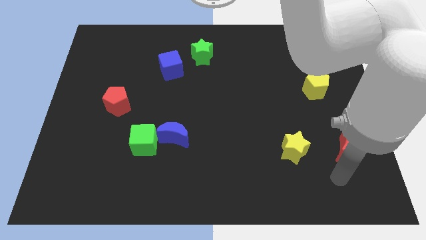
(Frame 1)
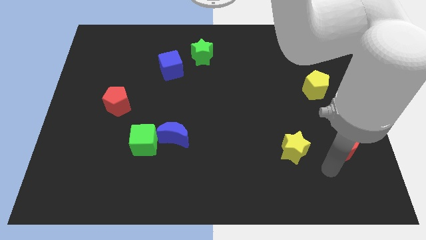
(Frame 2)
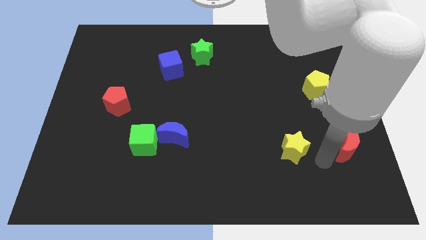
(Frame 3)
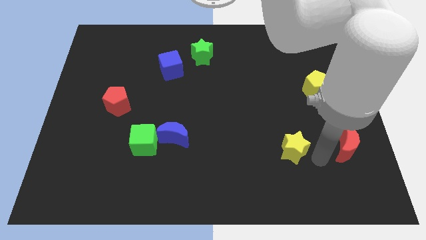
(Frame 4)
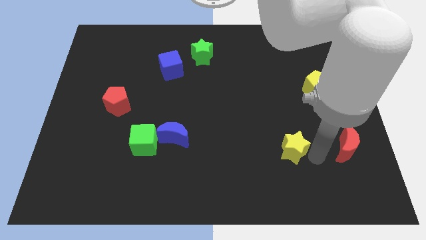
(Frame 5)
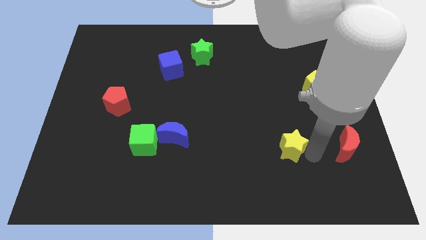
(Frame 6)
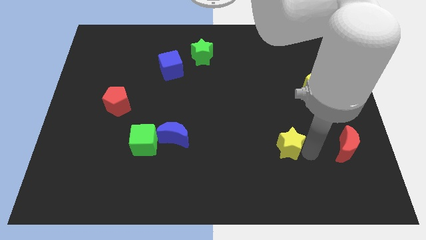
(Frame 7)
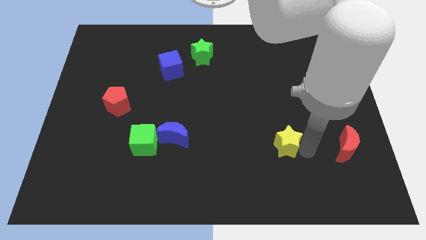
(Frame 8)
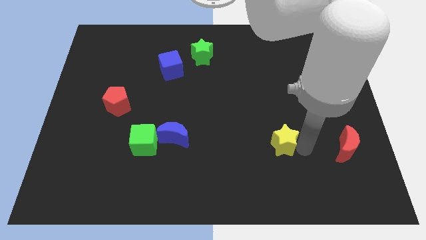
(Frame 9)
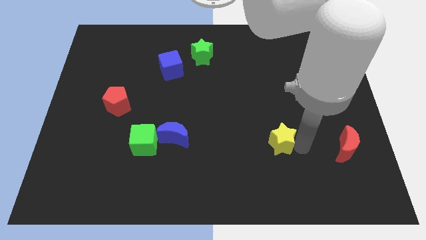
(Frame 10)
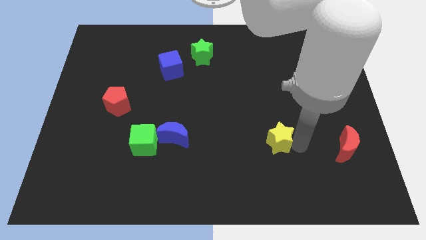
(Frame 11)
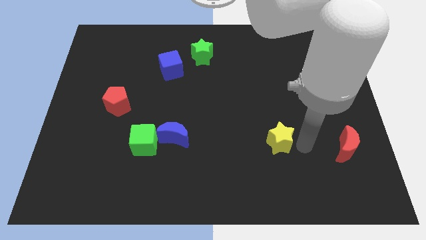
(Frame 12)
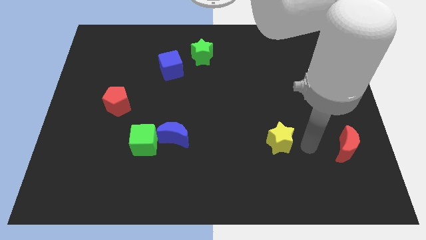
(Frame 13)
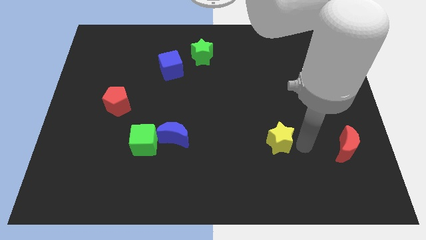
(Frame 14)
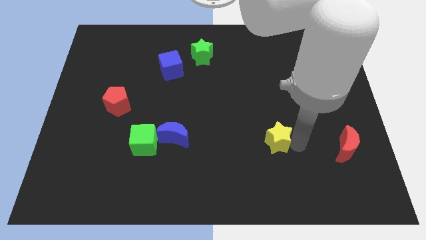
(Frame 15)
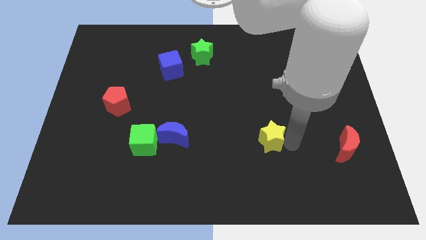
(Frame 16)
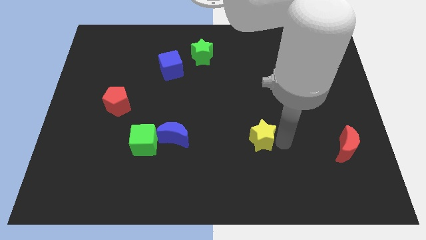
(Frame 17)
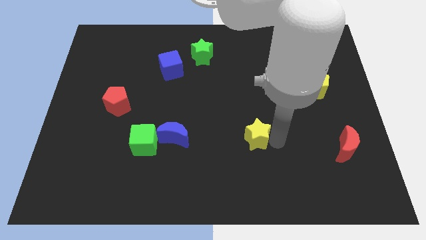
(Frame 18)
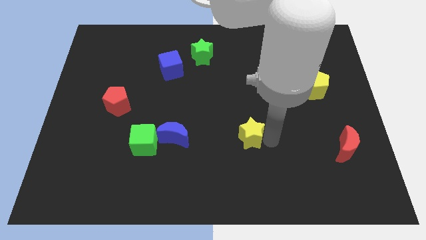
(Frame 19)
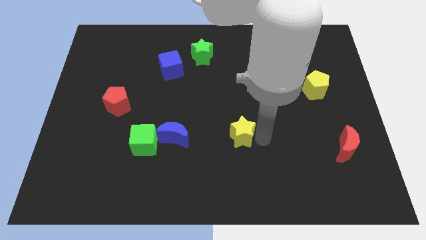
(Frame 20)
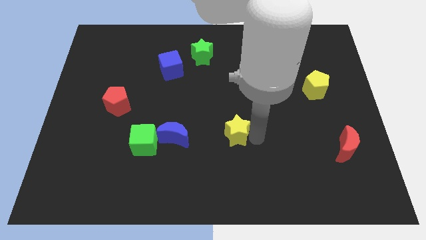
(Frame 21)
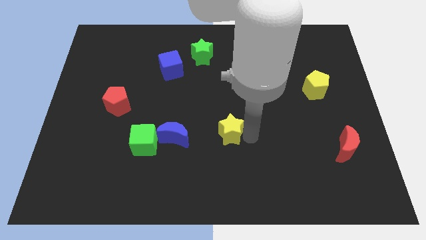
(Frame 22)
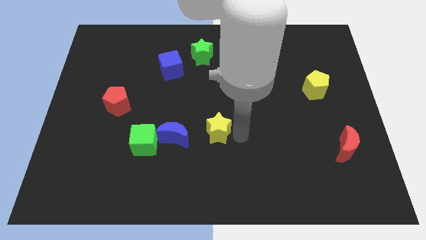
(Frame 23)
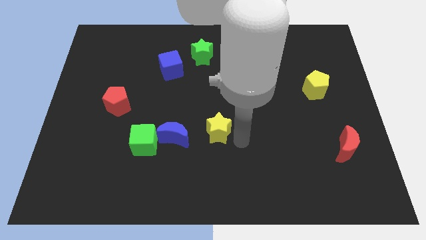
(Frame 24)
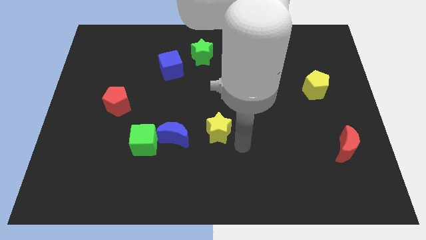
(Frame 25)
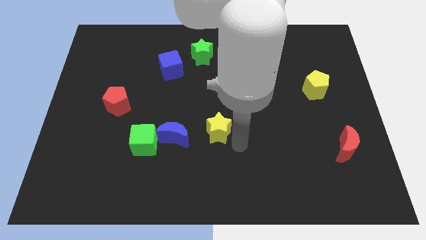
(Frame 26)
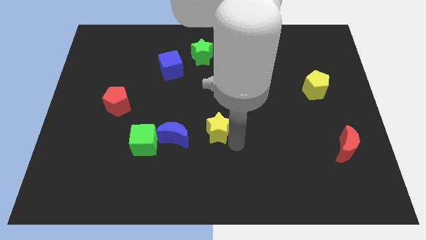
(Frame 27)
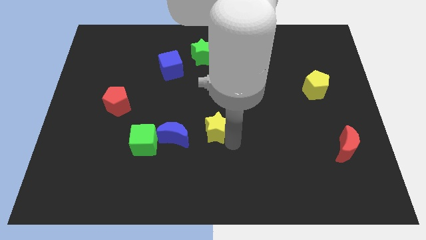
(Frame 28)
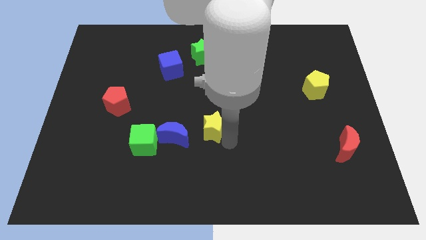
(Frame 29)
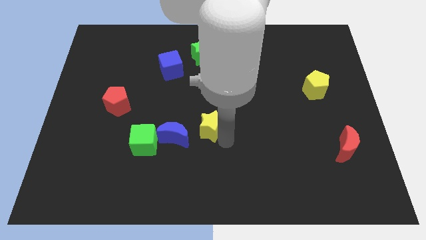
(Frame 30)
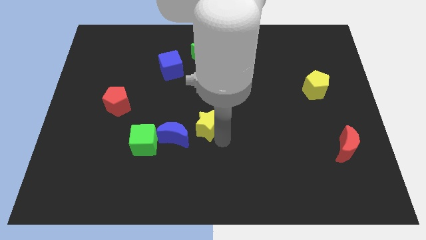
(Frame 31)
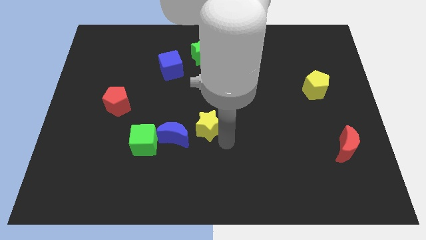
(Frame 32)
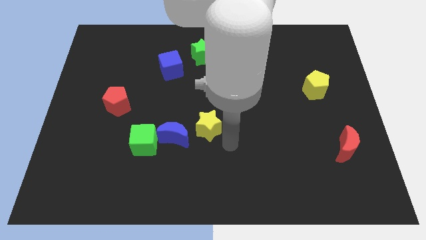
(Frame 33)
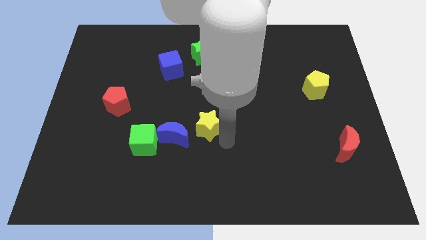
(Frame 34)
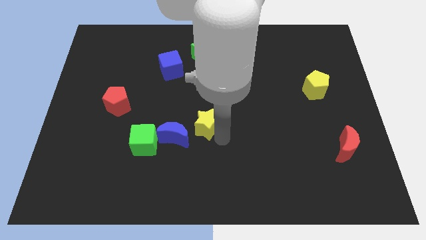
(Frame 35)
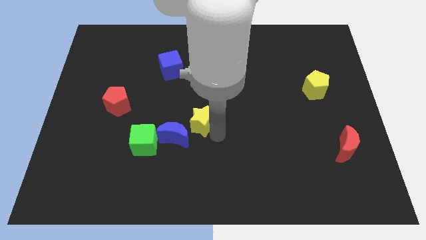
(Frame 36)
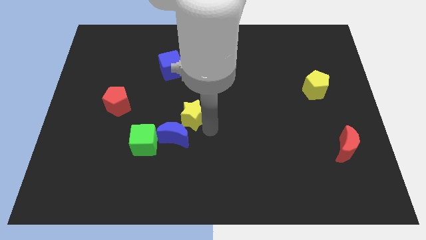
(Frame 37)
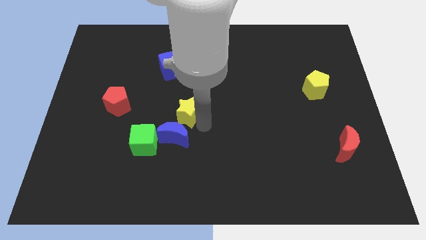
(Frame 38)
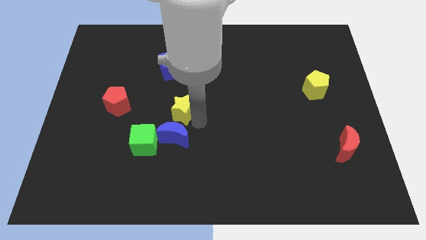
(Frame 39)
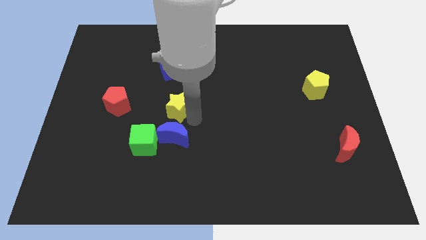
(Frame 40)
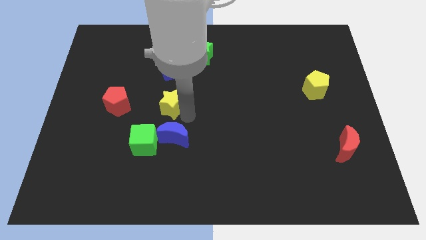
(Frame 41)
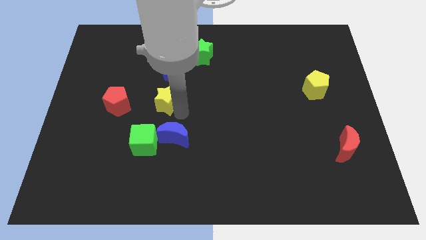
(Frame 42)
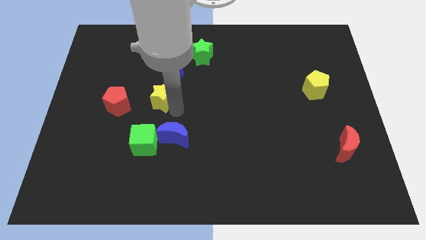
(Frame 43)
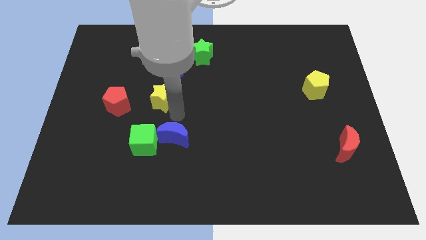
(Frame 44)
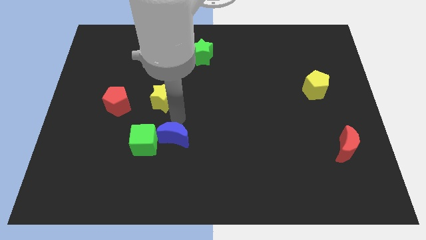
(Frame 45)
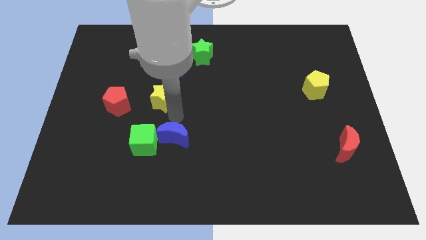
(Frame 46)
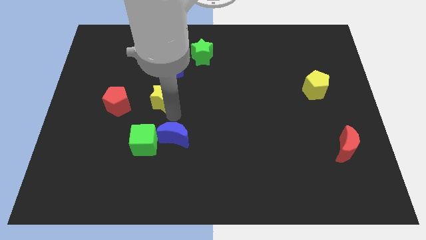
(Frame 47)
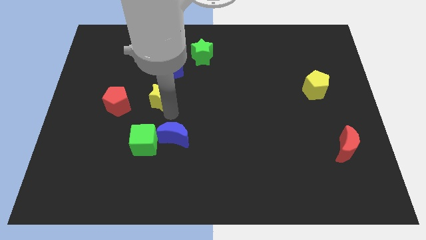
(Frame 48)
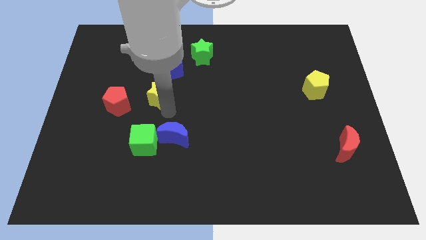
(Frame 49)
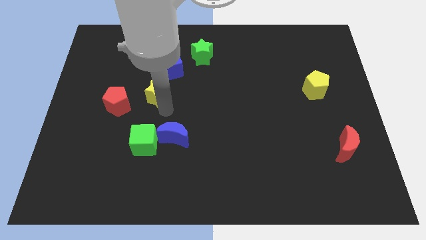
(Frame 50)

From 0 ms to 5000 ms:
put the yellow star diagonally down and to the left of the blue cube

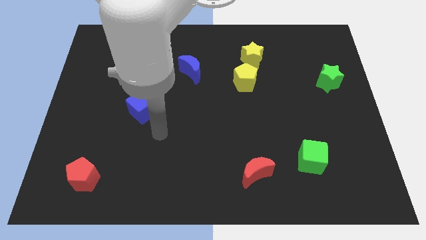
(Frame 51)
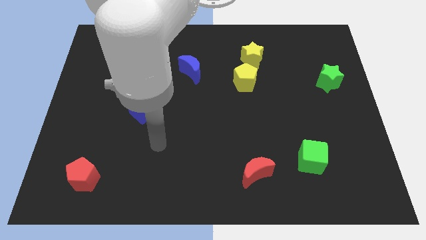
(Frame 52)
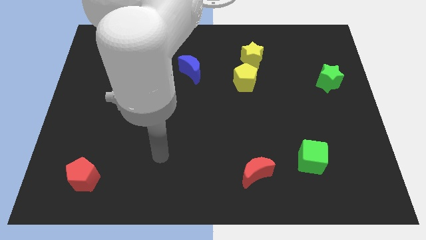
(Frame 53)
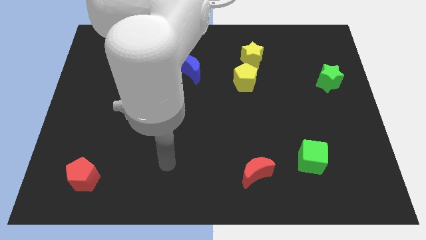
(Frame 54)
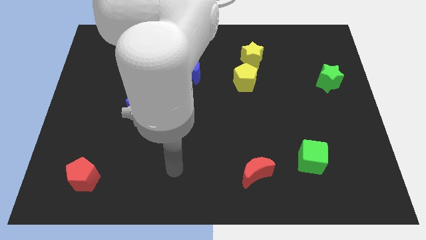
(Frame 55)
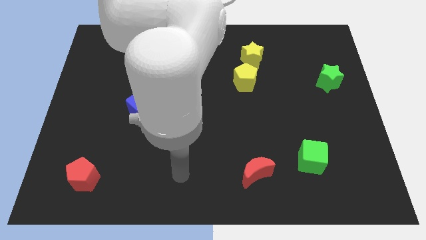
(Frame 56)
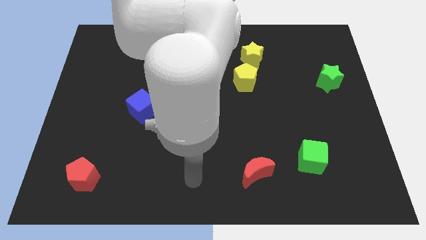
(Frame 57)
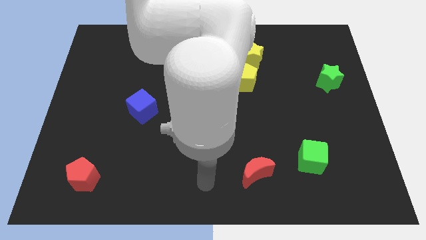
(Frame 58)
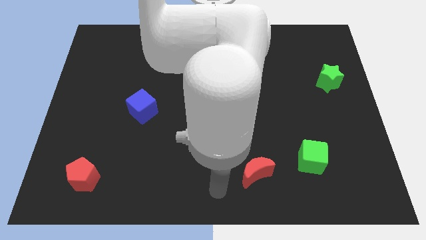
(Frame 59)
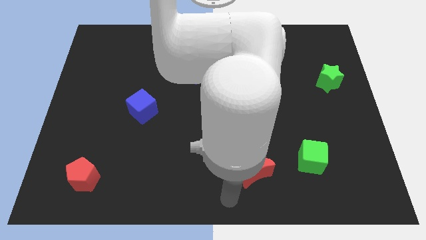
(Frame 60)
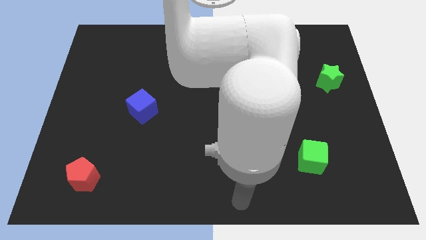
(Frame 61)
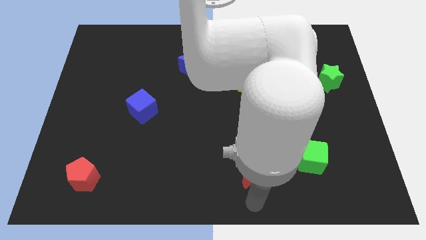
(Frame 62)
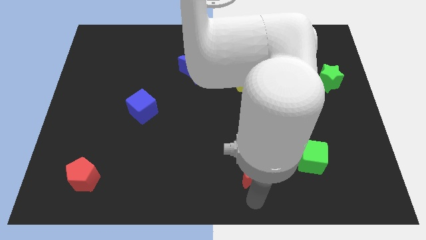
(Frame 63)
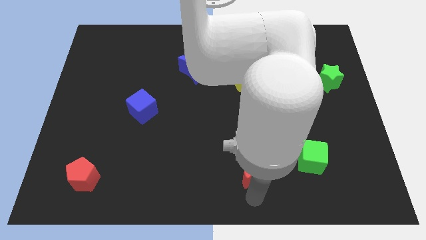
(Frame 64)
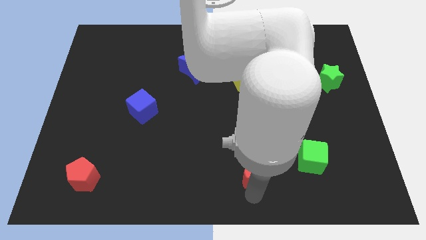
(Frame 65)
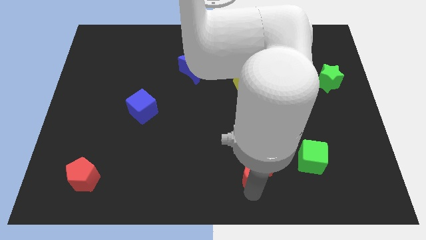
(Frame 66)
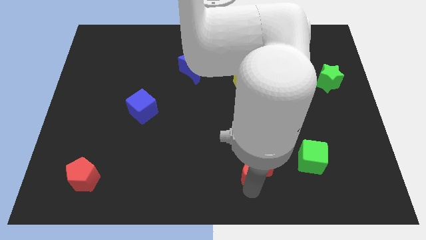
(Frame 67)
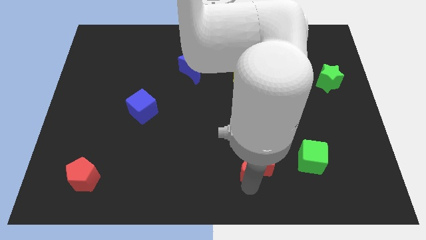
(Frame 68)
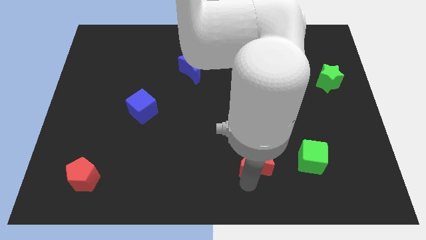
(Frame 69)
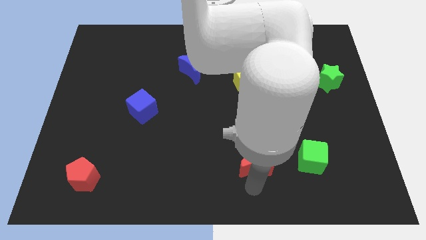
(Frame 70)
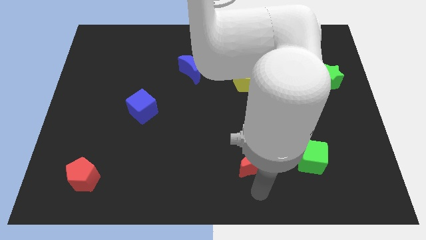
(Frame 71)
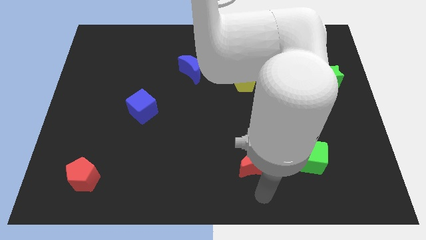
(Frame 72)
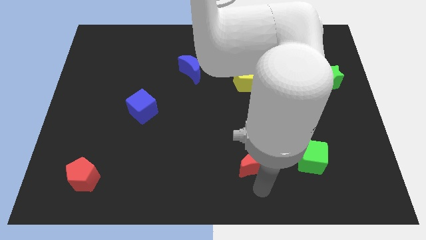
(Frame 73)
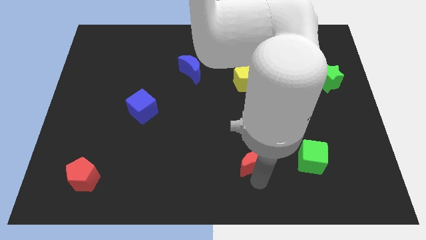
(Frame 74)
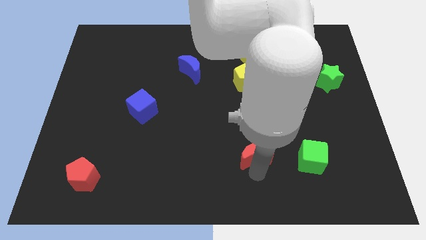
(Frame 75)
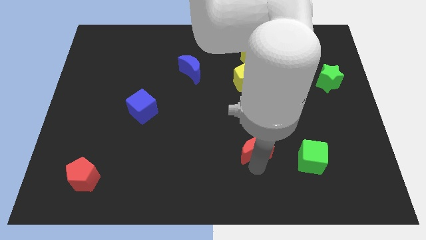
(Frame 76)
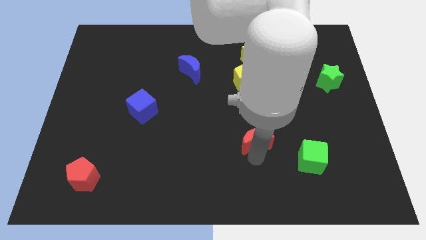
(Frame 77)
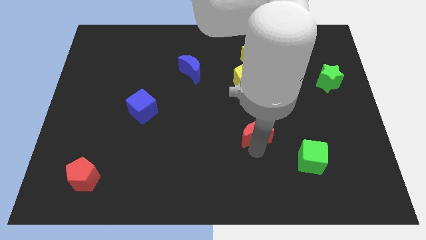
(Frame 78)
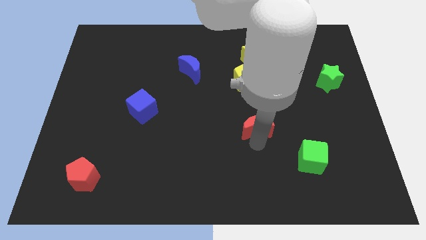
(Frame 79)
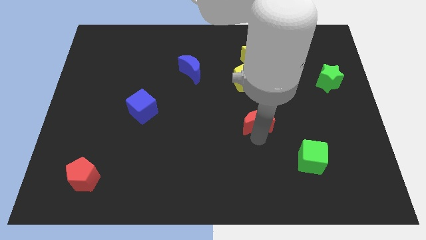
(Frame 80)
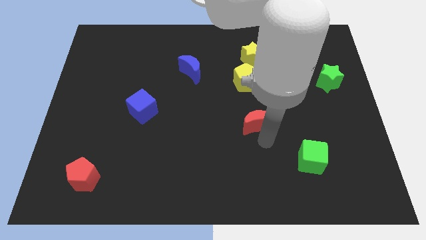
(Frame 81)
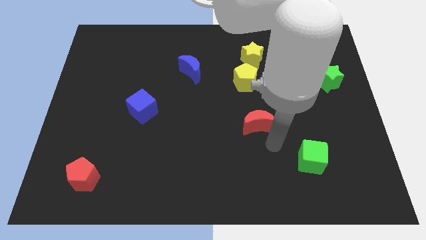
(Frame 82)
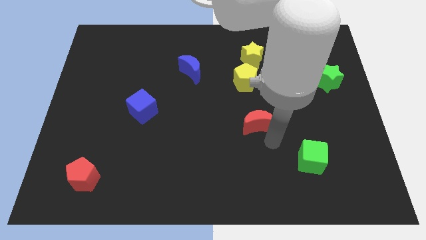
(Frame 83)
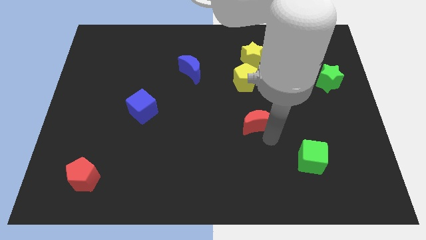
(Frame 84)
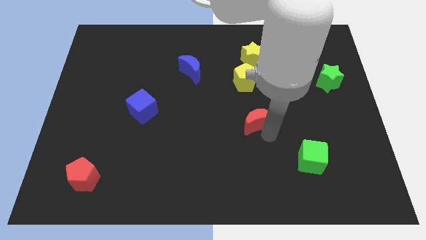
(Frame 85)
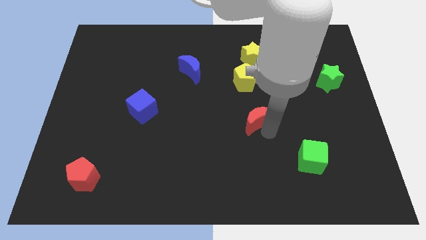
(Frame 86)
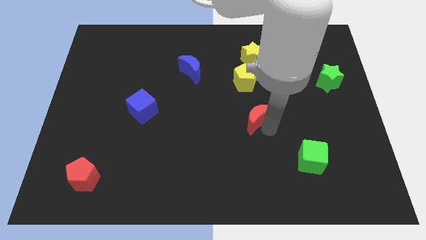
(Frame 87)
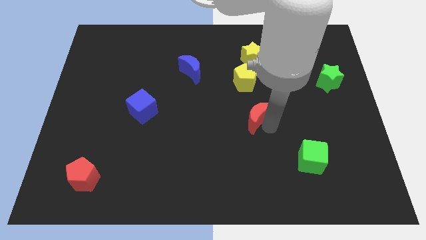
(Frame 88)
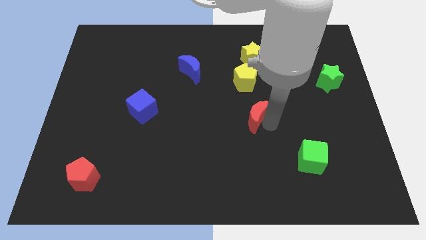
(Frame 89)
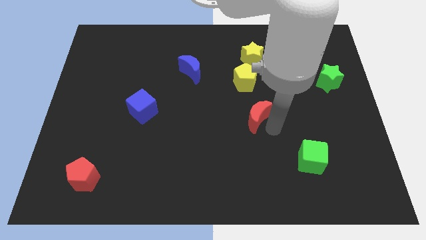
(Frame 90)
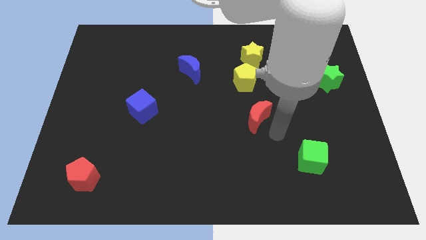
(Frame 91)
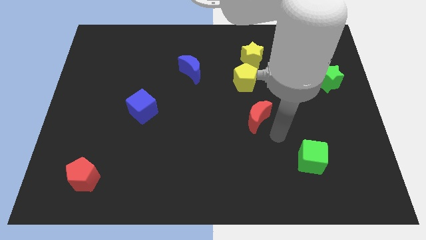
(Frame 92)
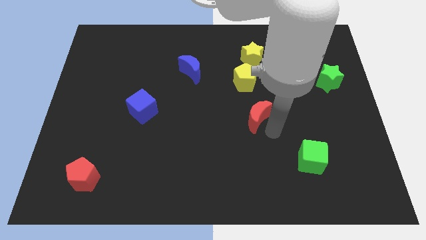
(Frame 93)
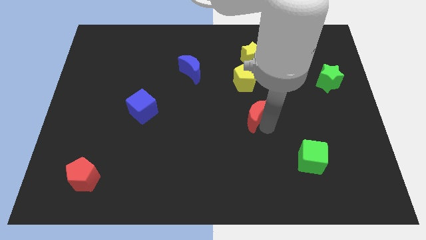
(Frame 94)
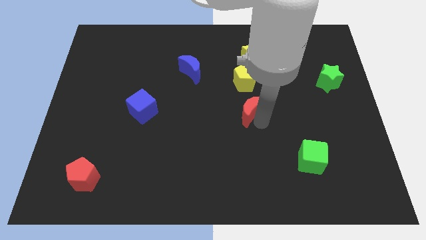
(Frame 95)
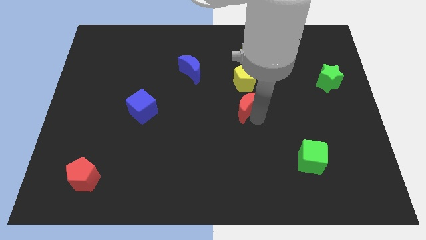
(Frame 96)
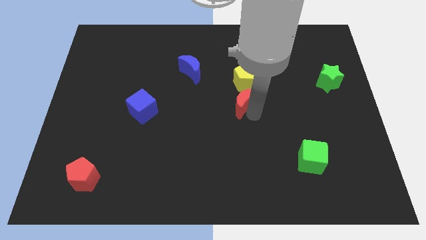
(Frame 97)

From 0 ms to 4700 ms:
put the red moon to the bottom side of the yellow star
